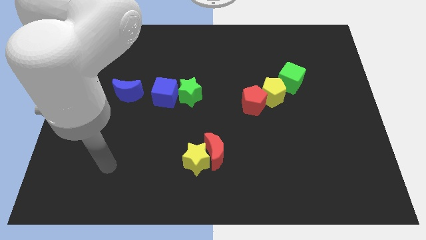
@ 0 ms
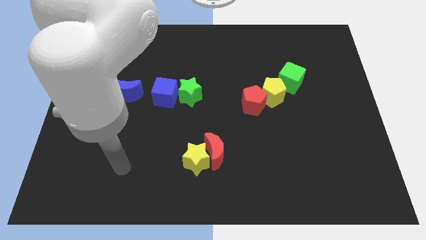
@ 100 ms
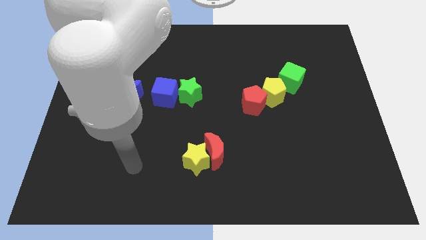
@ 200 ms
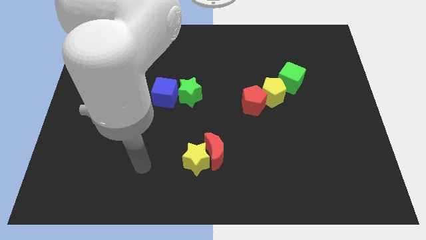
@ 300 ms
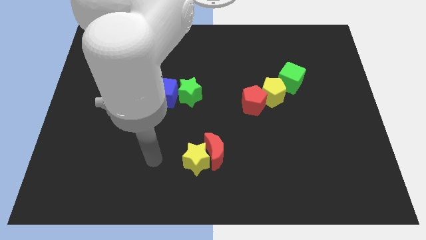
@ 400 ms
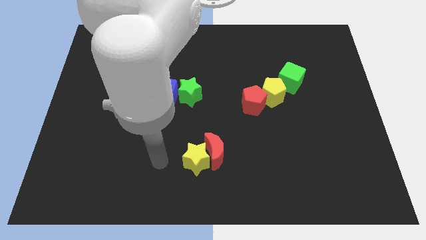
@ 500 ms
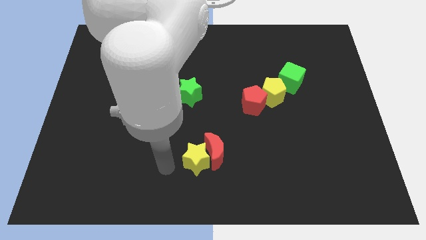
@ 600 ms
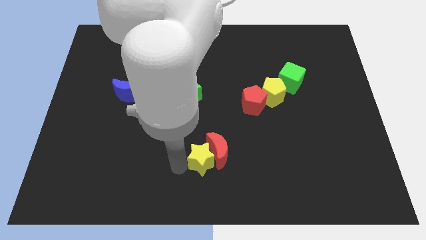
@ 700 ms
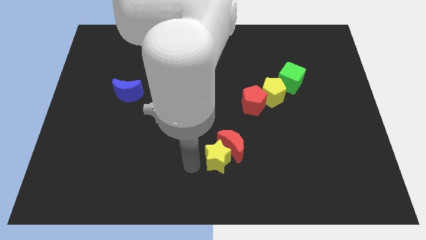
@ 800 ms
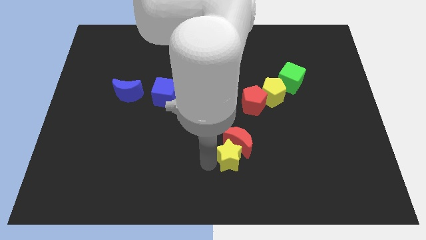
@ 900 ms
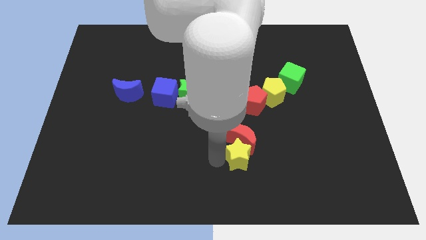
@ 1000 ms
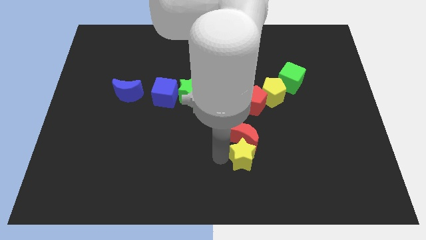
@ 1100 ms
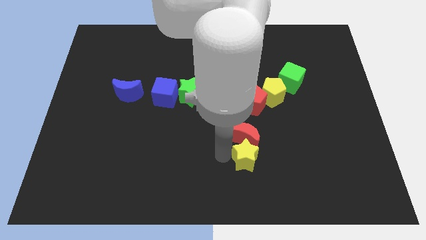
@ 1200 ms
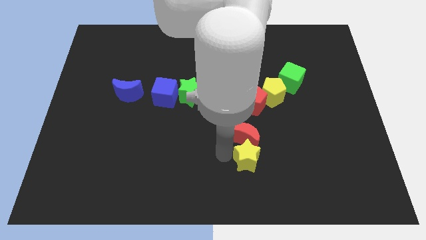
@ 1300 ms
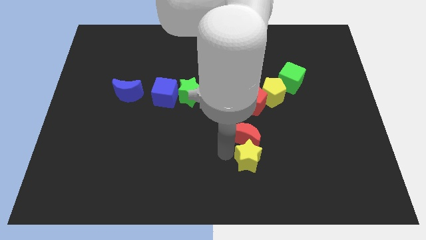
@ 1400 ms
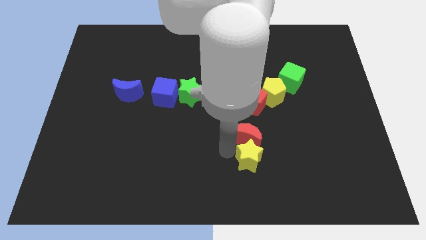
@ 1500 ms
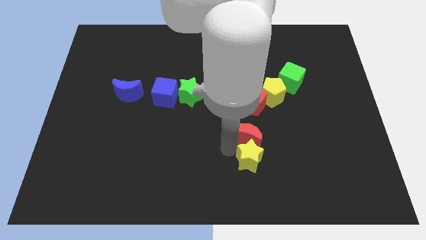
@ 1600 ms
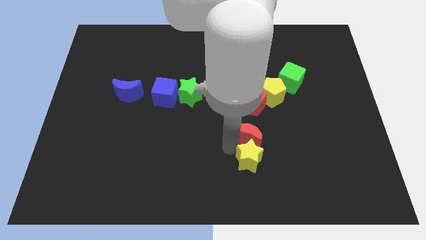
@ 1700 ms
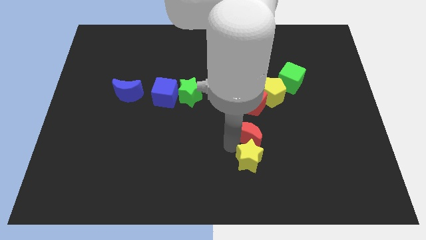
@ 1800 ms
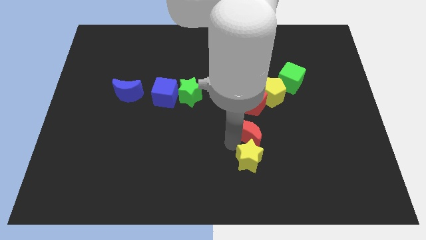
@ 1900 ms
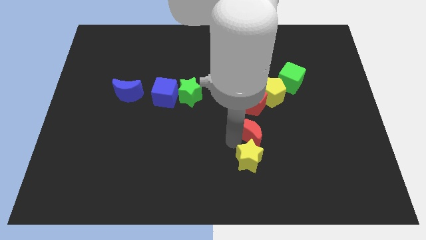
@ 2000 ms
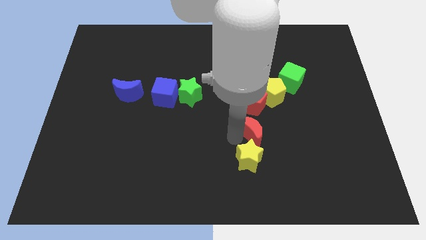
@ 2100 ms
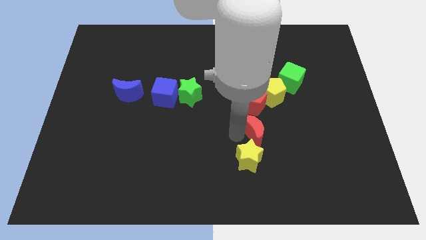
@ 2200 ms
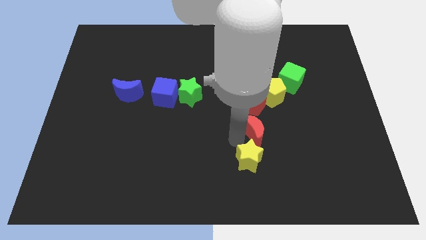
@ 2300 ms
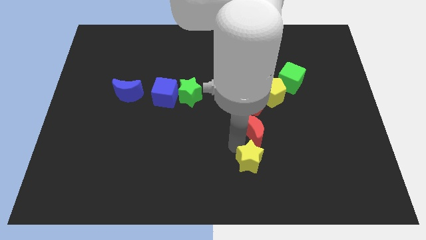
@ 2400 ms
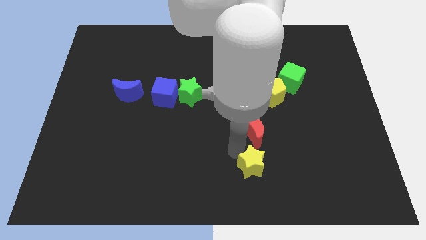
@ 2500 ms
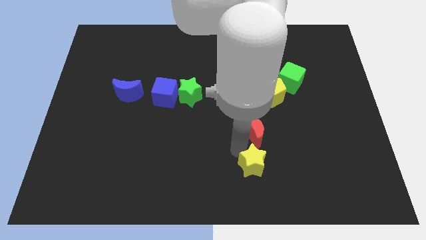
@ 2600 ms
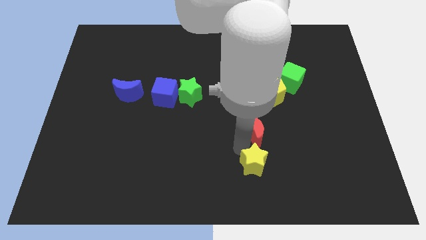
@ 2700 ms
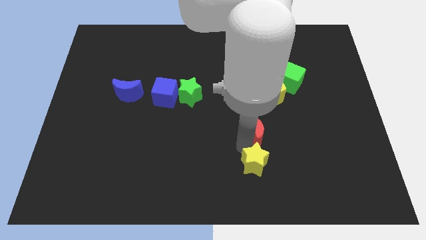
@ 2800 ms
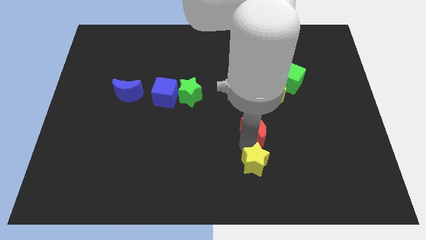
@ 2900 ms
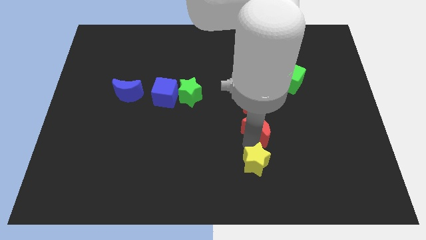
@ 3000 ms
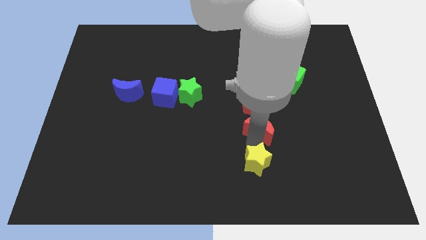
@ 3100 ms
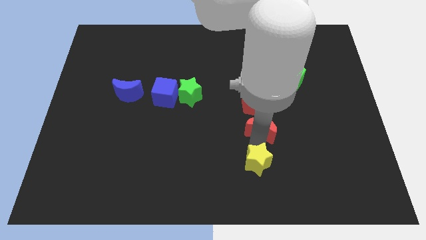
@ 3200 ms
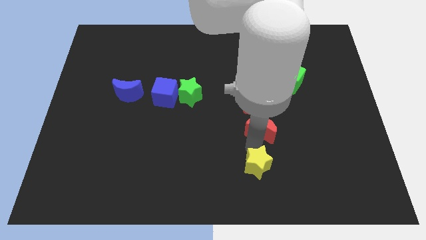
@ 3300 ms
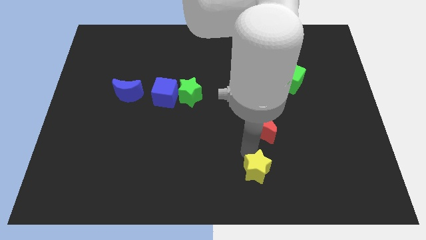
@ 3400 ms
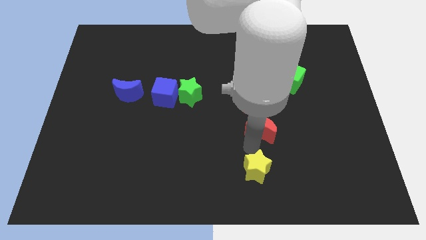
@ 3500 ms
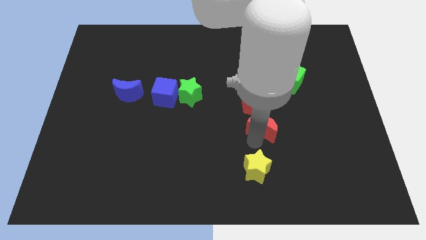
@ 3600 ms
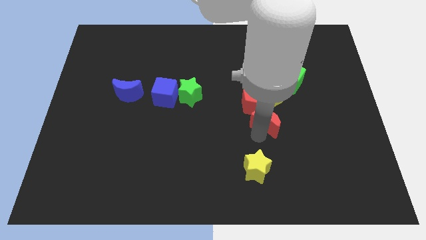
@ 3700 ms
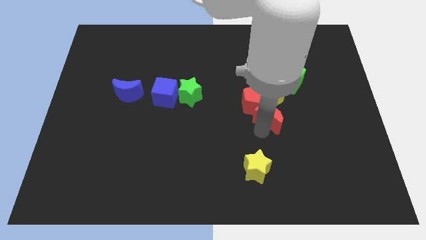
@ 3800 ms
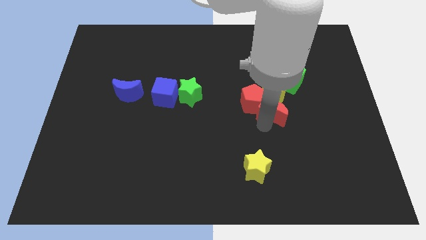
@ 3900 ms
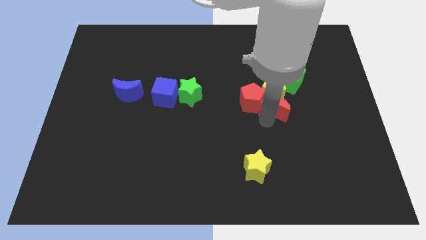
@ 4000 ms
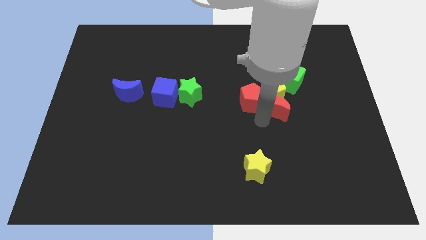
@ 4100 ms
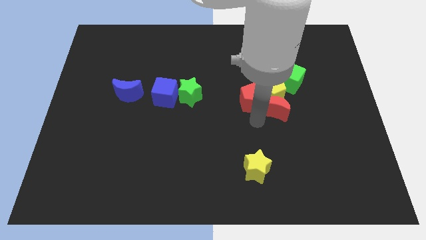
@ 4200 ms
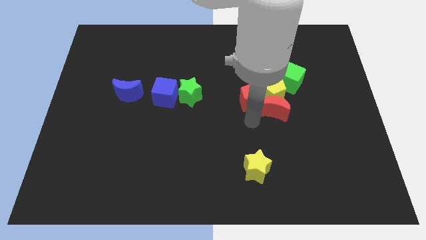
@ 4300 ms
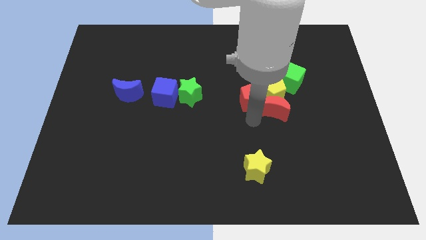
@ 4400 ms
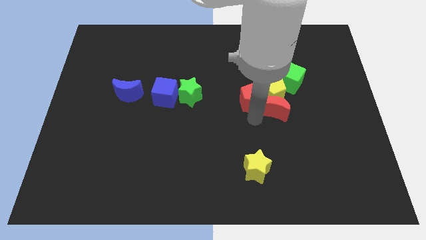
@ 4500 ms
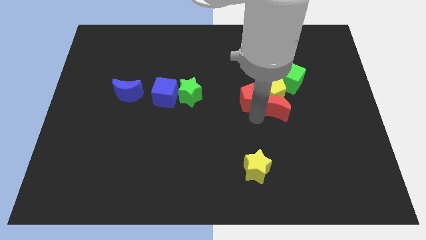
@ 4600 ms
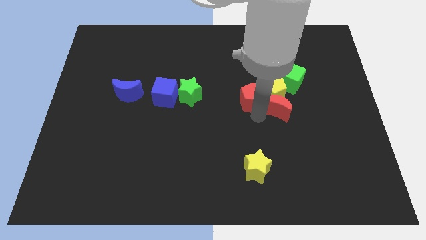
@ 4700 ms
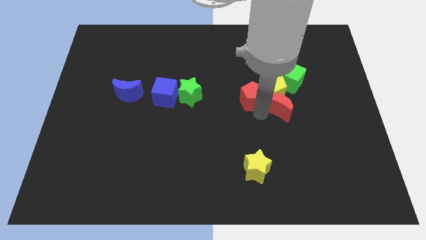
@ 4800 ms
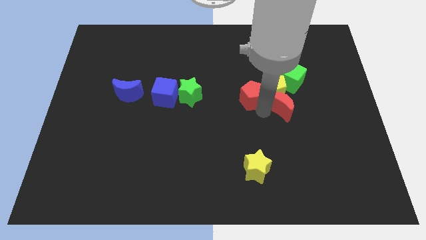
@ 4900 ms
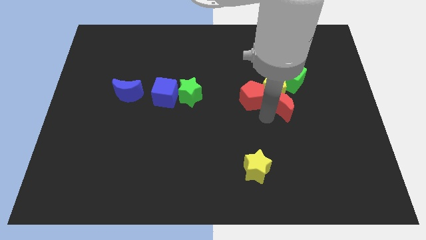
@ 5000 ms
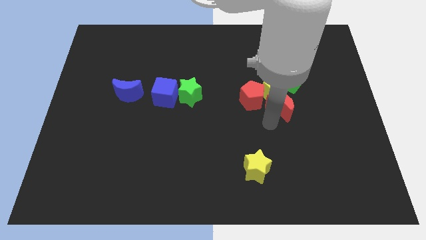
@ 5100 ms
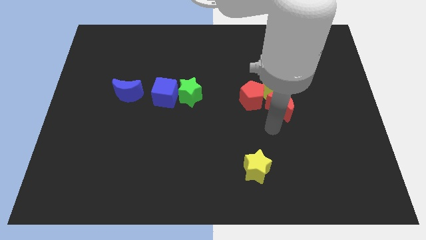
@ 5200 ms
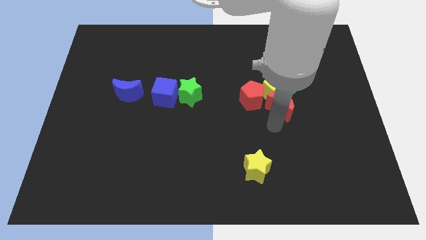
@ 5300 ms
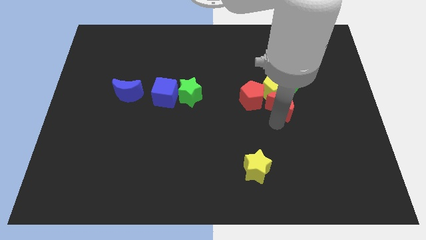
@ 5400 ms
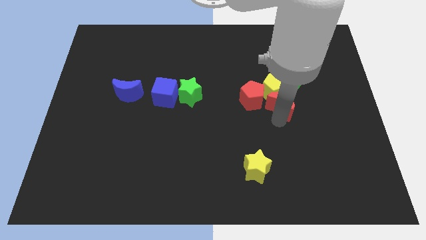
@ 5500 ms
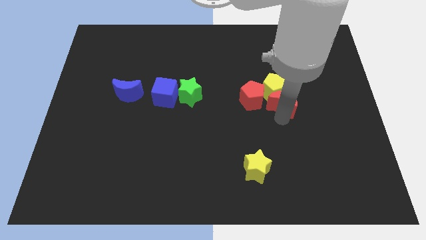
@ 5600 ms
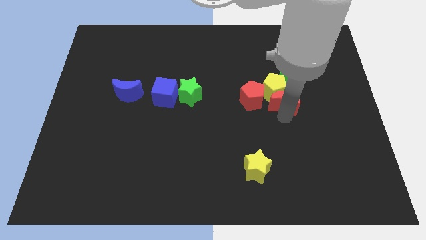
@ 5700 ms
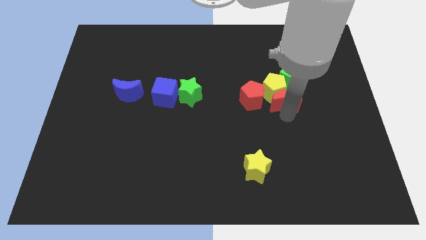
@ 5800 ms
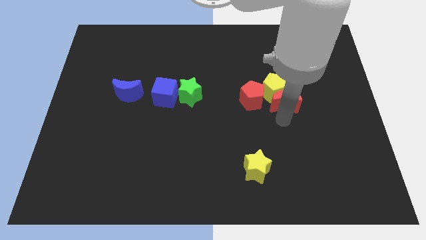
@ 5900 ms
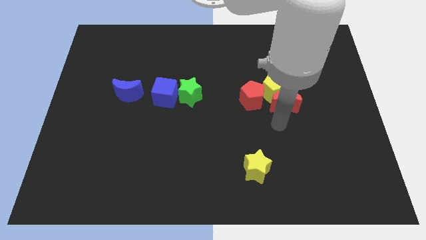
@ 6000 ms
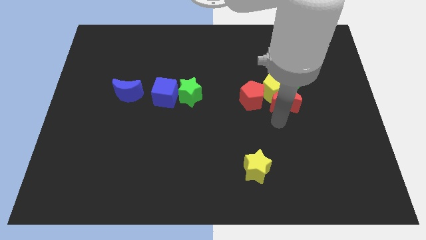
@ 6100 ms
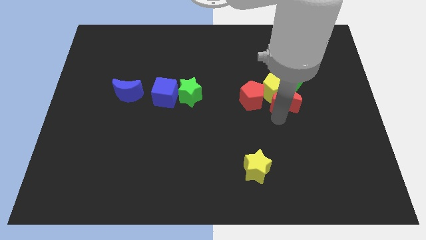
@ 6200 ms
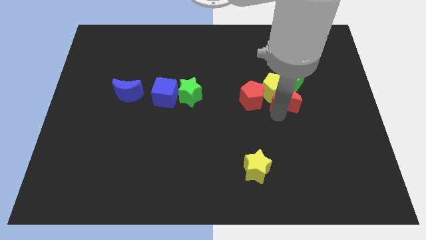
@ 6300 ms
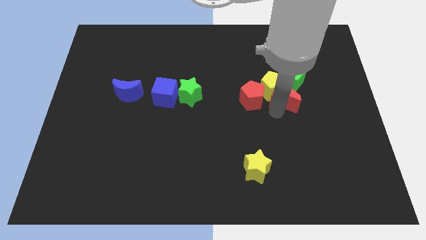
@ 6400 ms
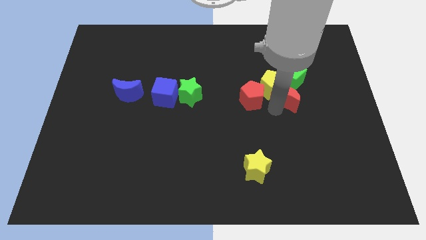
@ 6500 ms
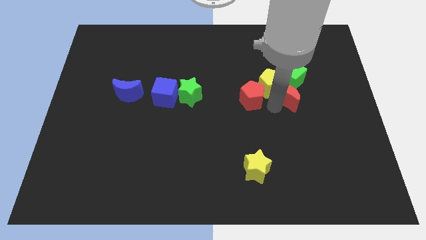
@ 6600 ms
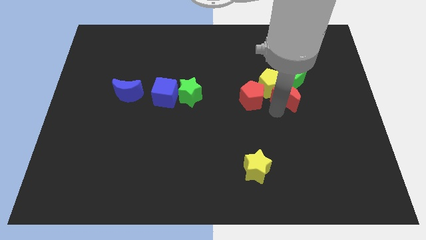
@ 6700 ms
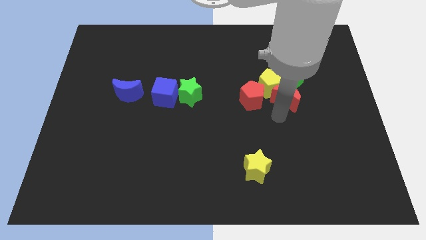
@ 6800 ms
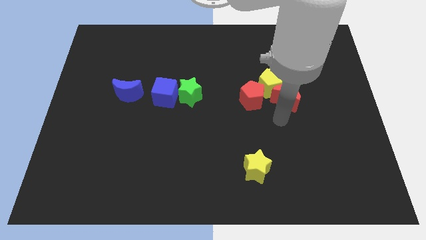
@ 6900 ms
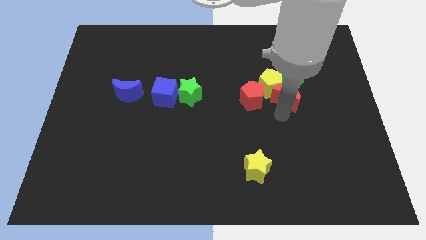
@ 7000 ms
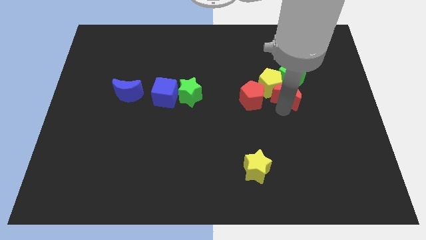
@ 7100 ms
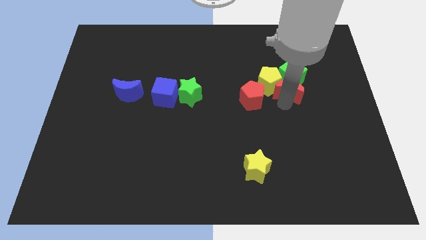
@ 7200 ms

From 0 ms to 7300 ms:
slide the red moon to the green cube
